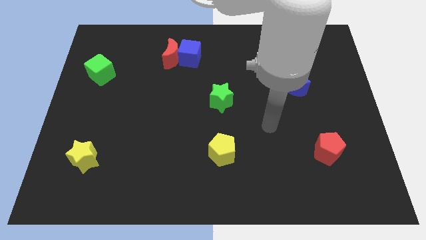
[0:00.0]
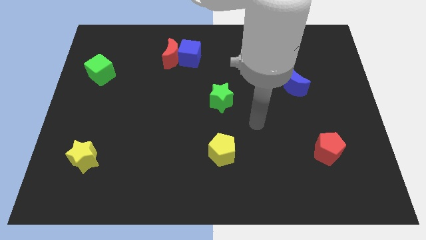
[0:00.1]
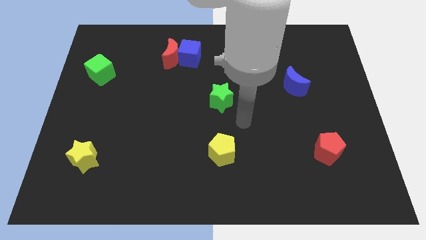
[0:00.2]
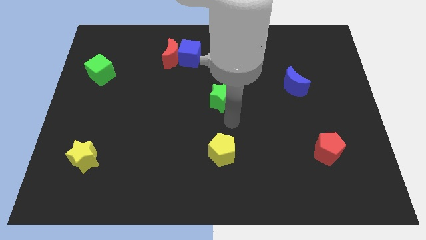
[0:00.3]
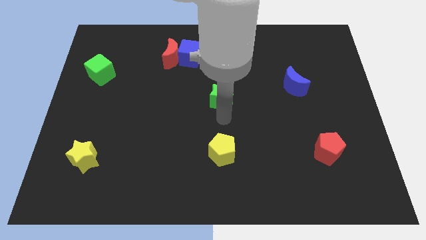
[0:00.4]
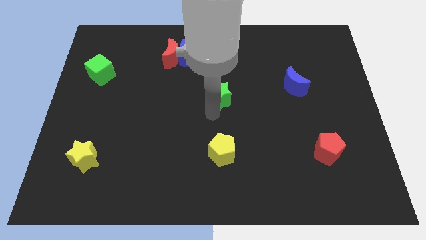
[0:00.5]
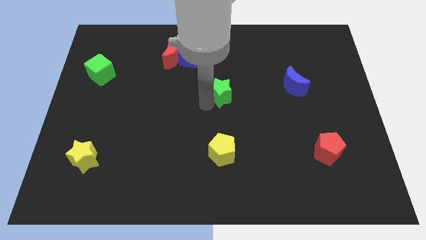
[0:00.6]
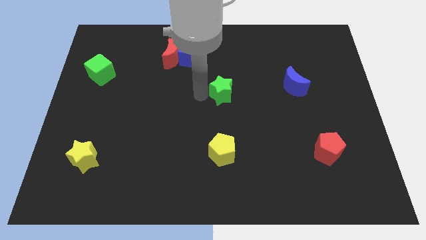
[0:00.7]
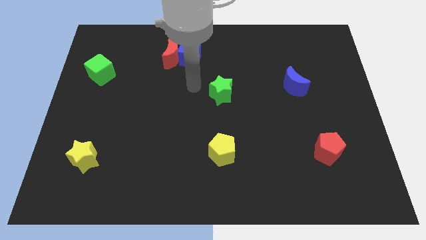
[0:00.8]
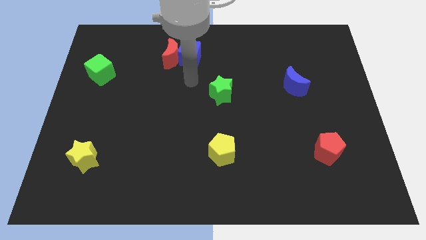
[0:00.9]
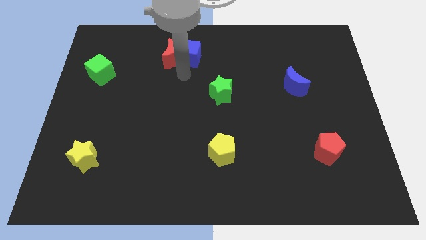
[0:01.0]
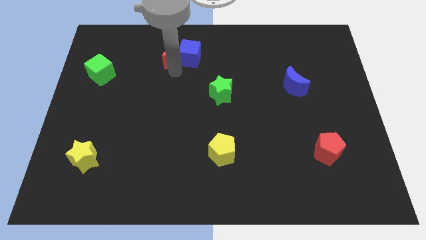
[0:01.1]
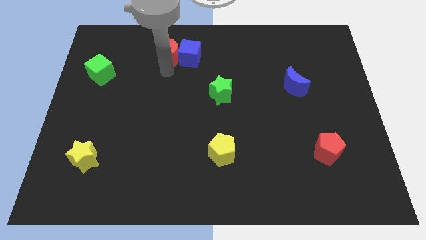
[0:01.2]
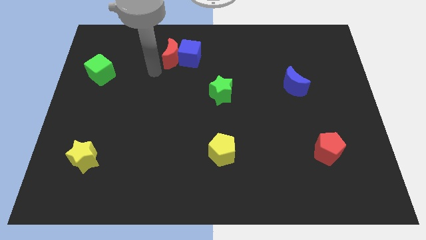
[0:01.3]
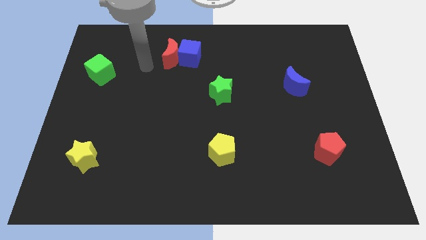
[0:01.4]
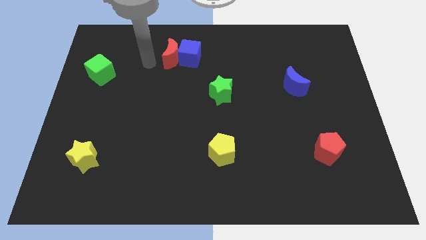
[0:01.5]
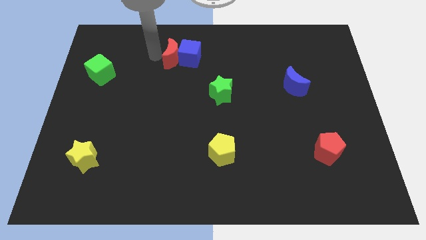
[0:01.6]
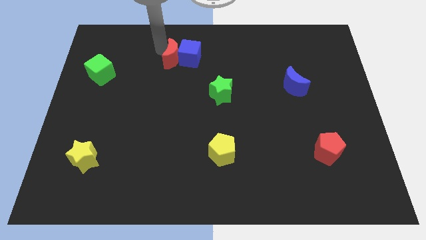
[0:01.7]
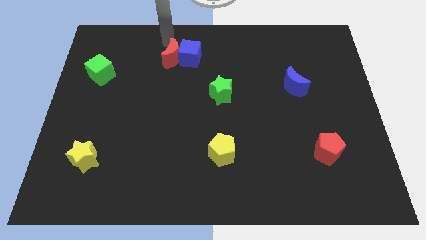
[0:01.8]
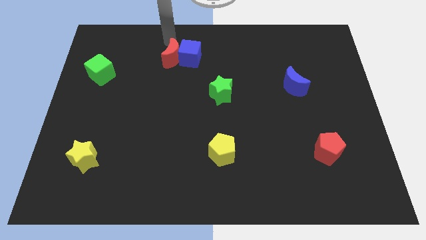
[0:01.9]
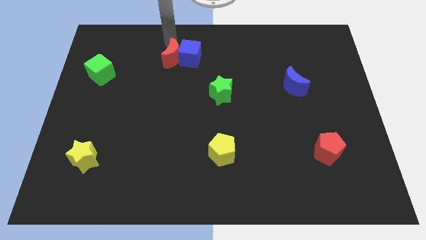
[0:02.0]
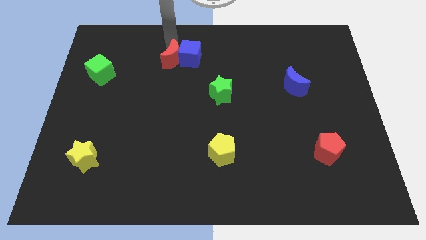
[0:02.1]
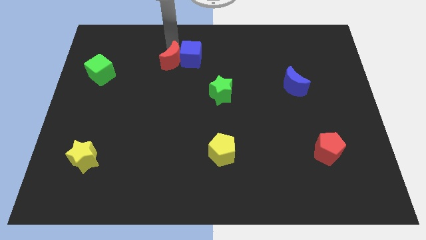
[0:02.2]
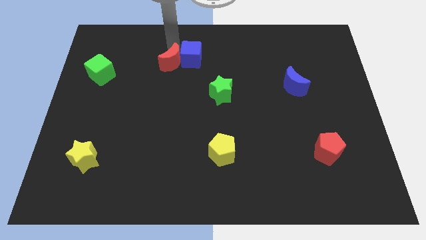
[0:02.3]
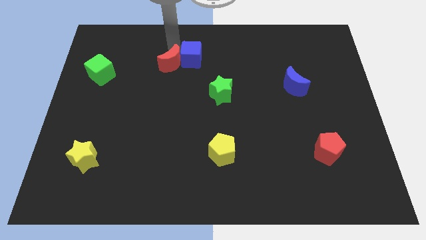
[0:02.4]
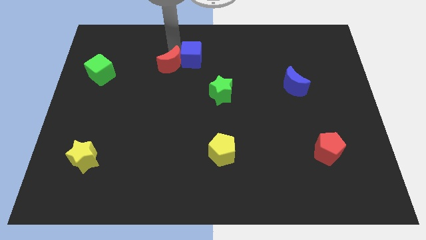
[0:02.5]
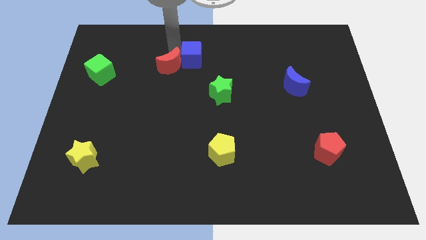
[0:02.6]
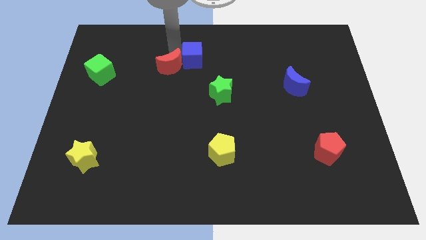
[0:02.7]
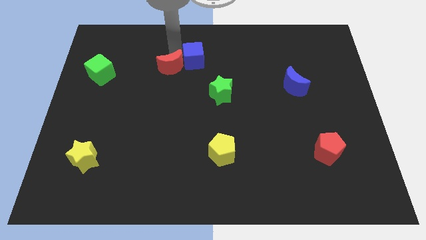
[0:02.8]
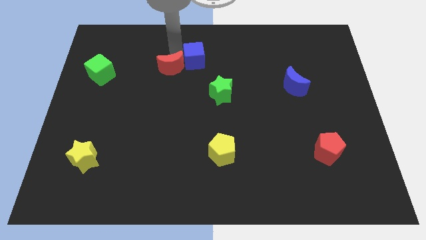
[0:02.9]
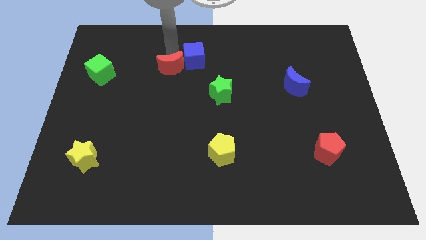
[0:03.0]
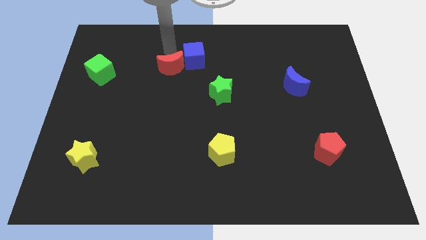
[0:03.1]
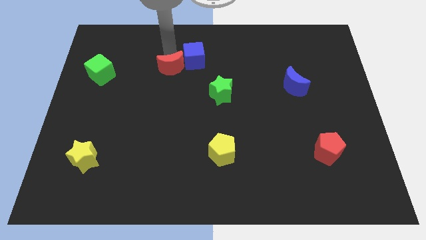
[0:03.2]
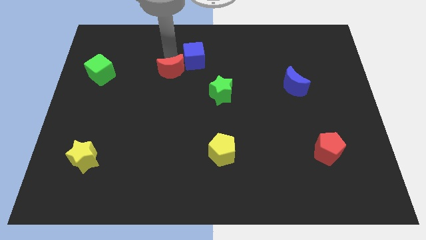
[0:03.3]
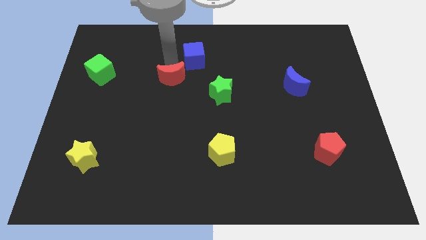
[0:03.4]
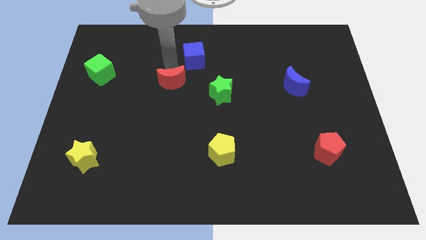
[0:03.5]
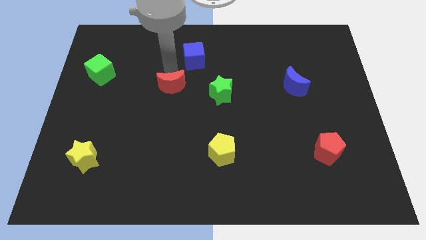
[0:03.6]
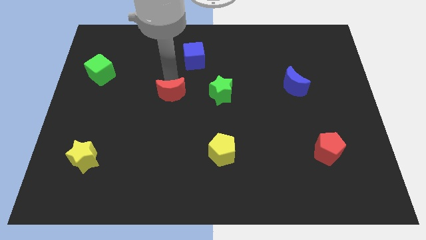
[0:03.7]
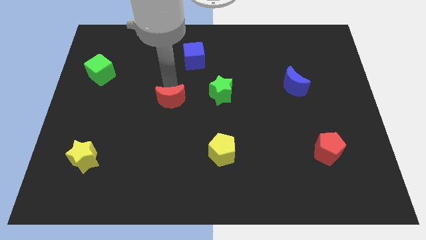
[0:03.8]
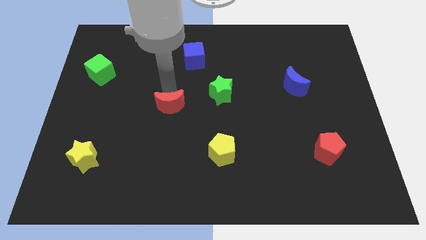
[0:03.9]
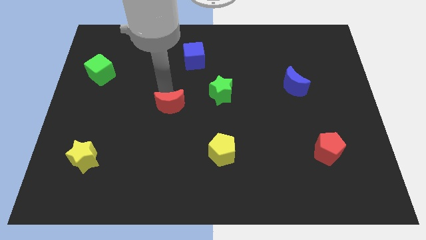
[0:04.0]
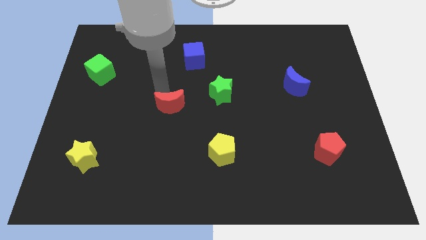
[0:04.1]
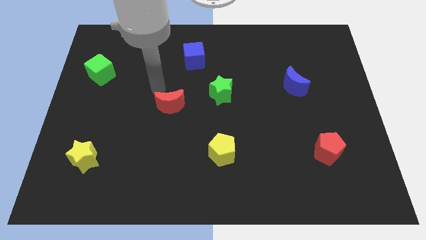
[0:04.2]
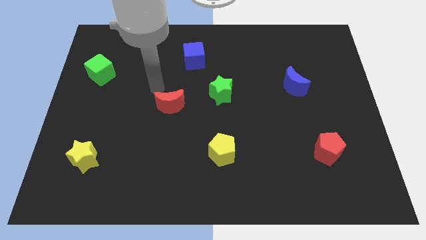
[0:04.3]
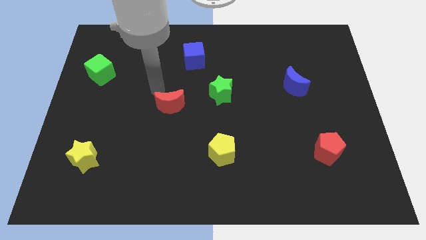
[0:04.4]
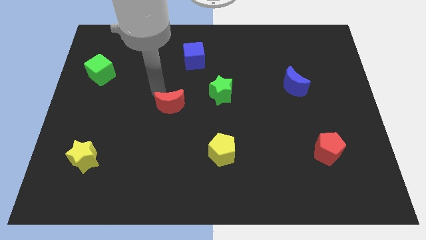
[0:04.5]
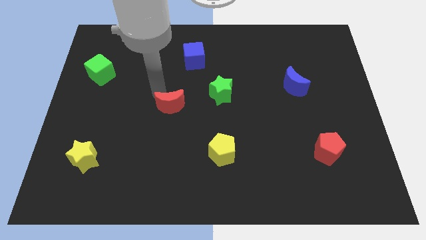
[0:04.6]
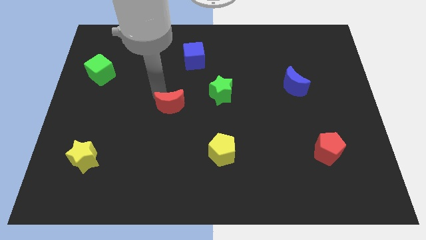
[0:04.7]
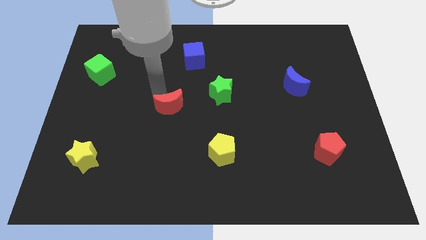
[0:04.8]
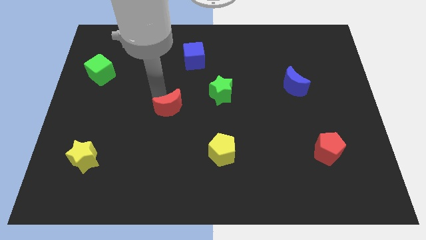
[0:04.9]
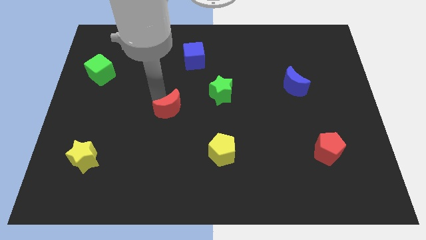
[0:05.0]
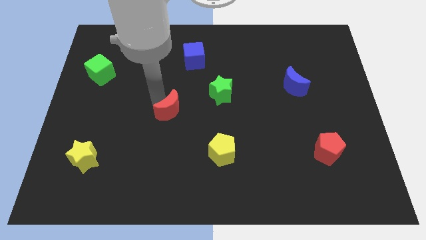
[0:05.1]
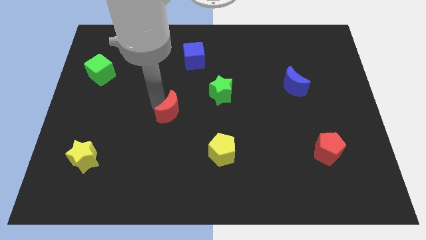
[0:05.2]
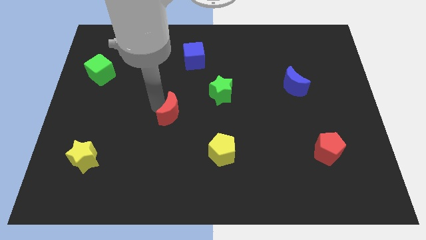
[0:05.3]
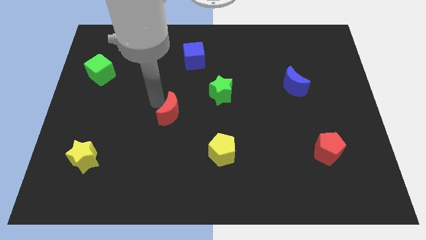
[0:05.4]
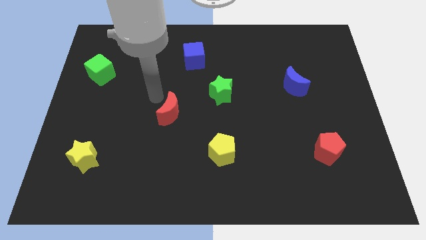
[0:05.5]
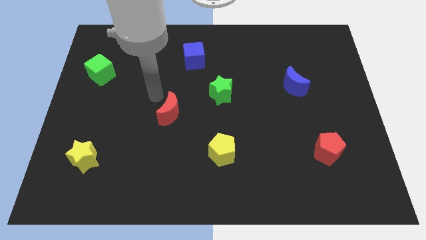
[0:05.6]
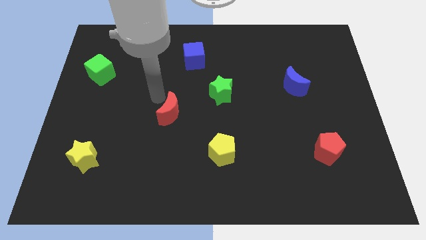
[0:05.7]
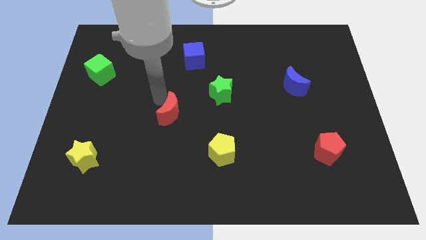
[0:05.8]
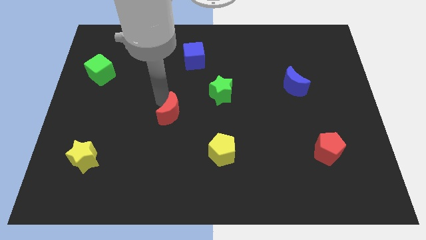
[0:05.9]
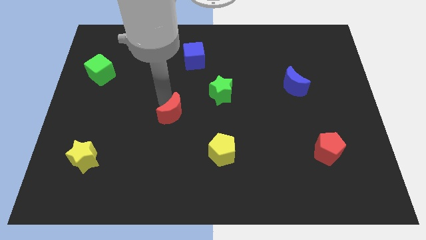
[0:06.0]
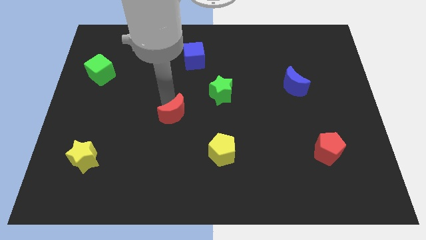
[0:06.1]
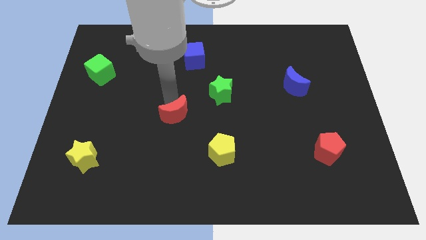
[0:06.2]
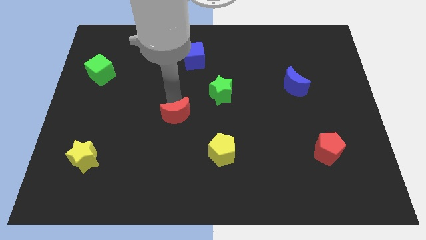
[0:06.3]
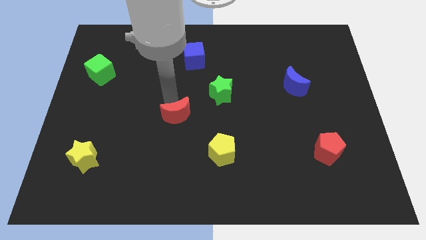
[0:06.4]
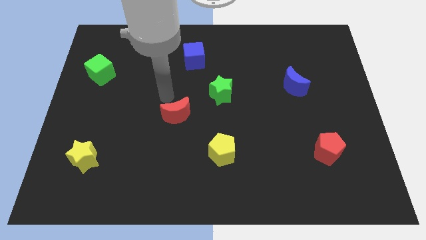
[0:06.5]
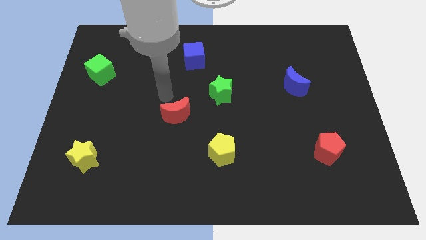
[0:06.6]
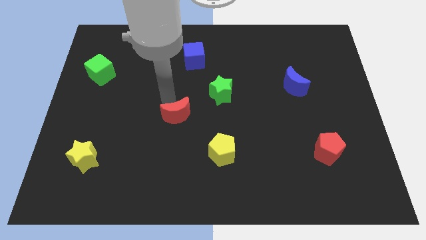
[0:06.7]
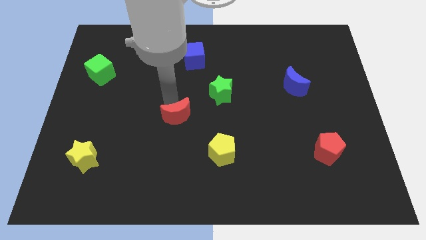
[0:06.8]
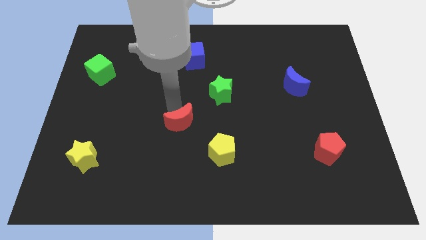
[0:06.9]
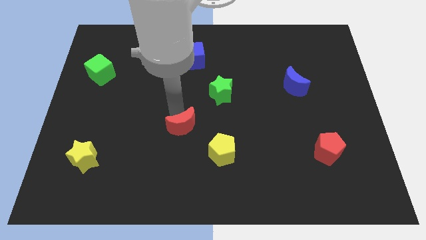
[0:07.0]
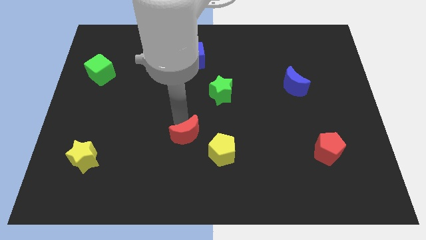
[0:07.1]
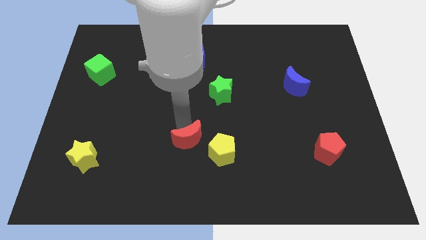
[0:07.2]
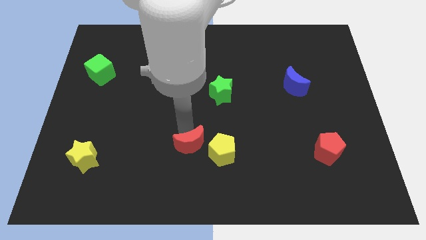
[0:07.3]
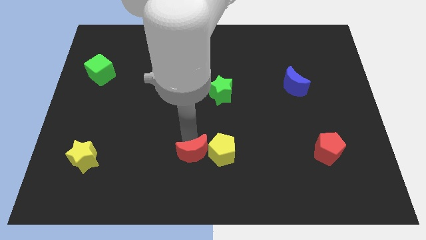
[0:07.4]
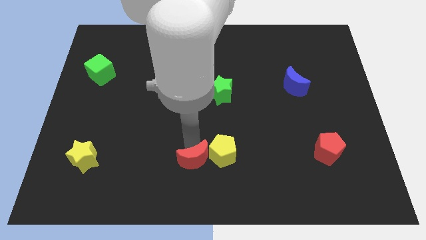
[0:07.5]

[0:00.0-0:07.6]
move the red moon to the bottom
